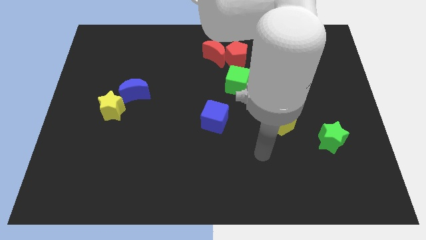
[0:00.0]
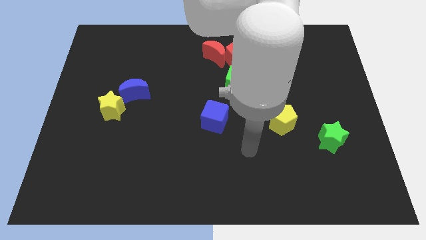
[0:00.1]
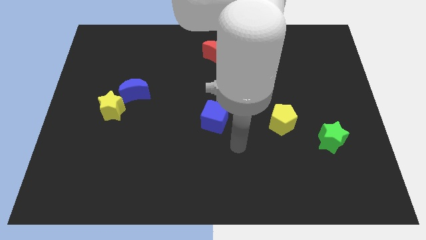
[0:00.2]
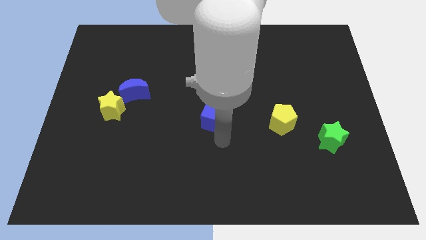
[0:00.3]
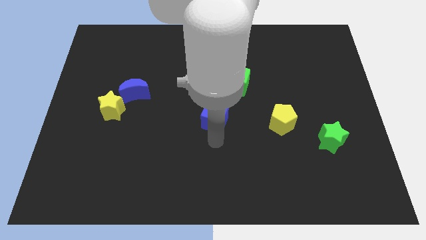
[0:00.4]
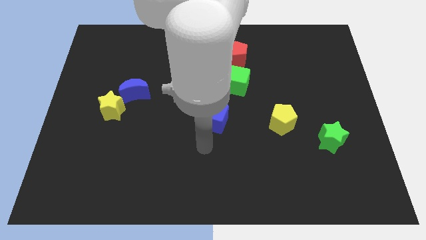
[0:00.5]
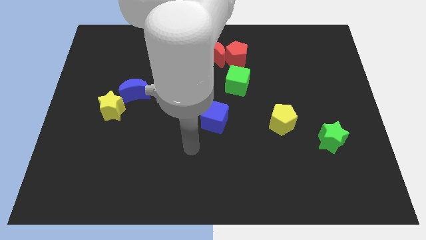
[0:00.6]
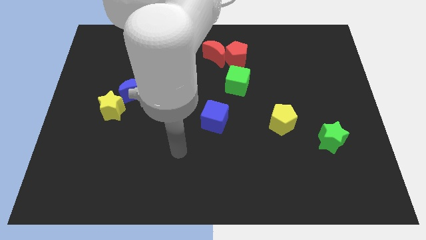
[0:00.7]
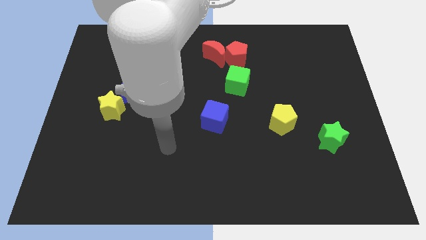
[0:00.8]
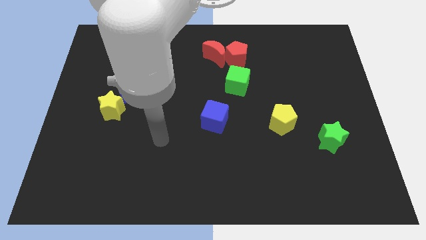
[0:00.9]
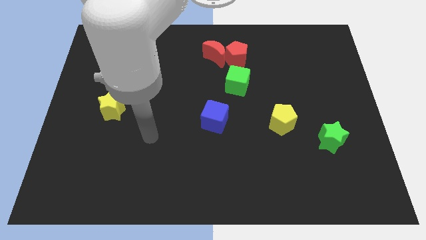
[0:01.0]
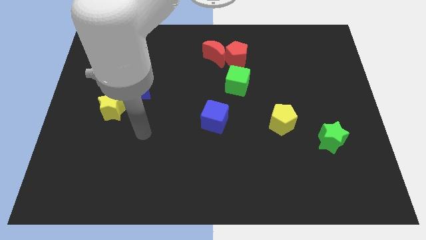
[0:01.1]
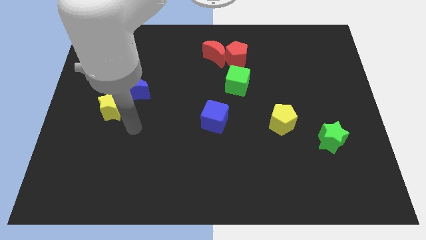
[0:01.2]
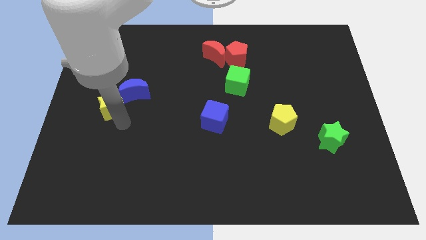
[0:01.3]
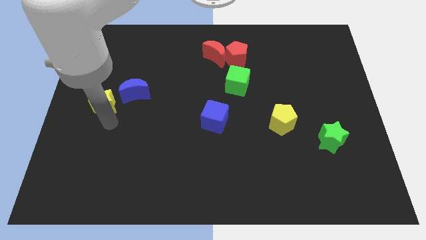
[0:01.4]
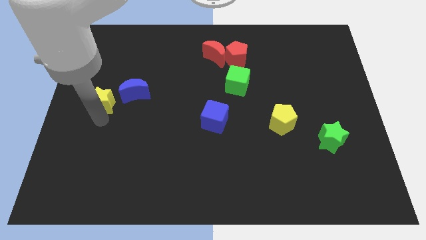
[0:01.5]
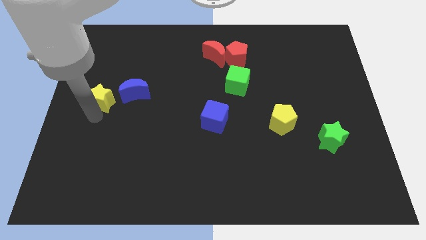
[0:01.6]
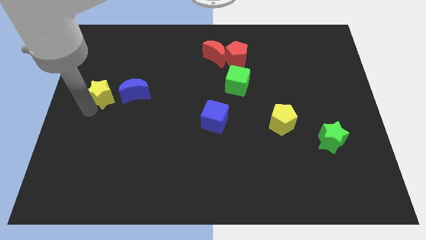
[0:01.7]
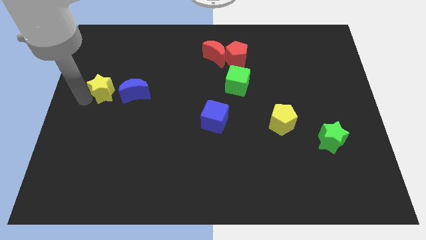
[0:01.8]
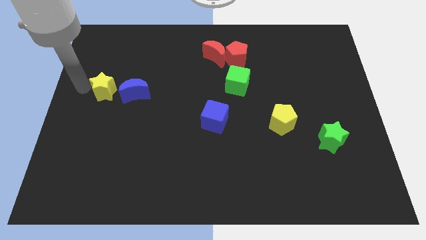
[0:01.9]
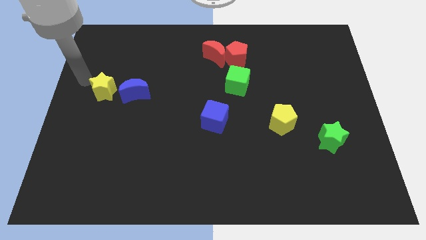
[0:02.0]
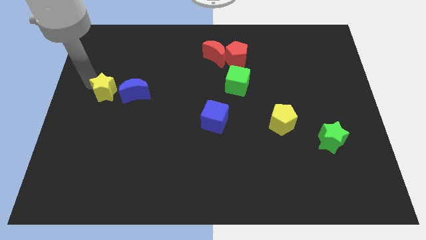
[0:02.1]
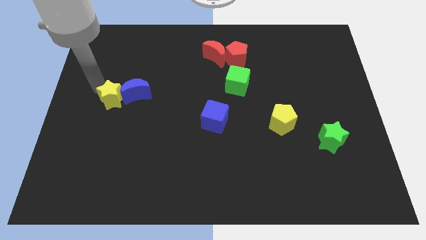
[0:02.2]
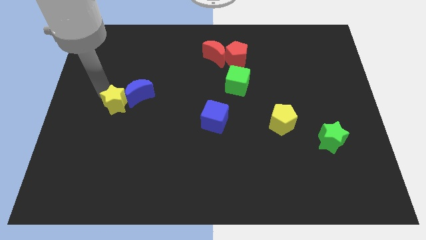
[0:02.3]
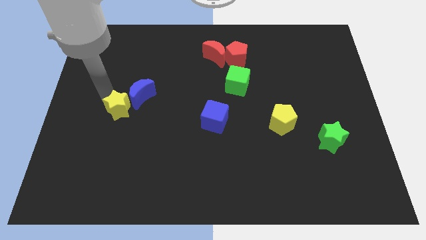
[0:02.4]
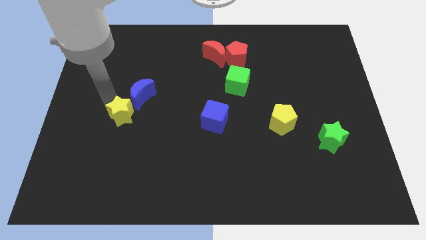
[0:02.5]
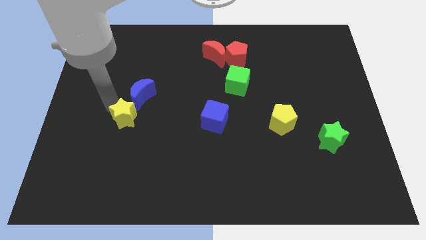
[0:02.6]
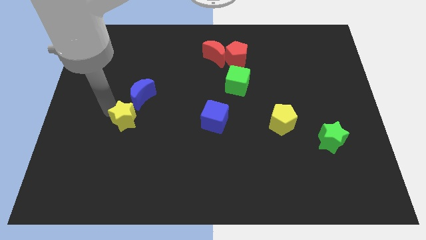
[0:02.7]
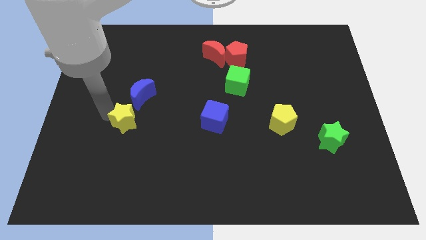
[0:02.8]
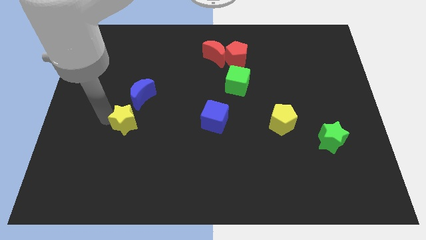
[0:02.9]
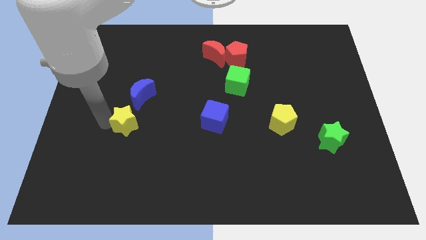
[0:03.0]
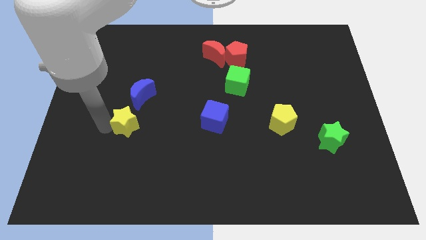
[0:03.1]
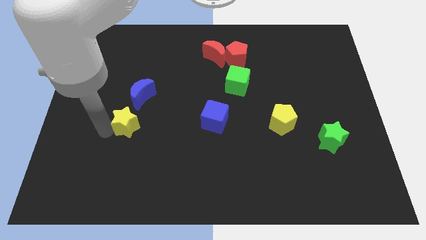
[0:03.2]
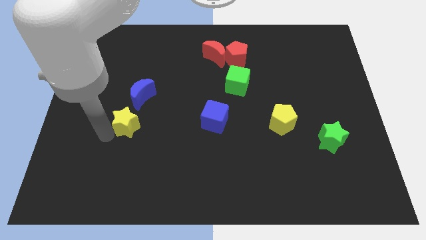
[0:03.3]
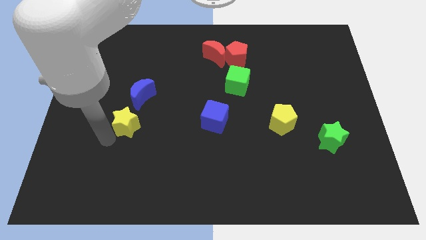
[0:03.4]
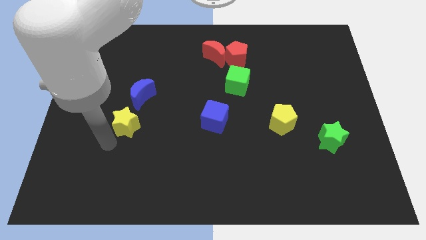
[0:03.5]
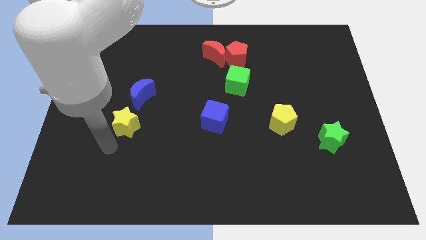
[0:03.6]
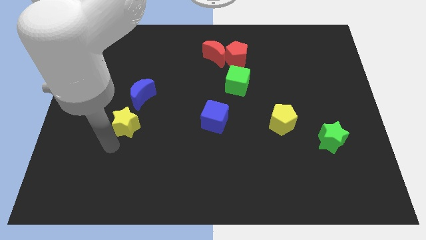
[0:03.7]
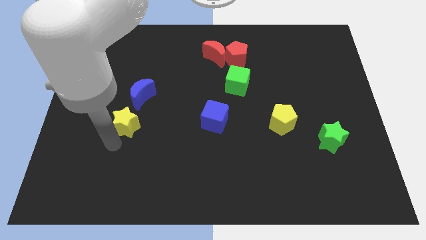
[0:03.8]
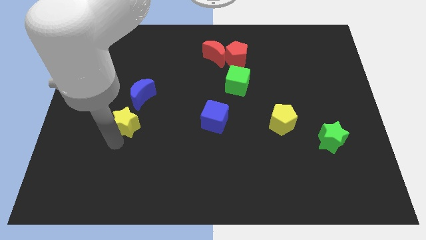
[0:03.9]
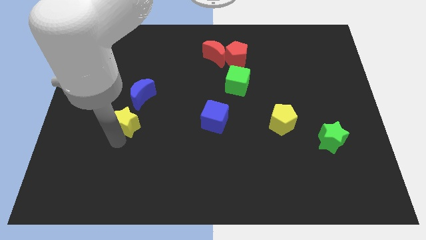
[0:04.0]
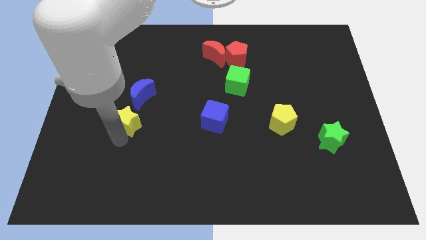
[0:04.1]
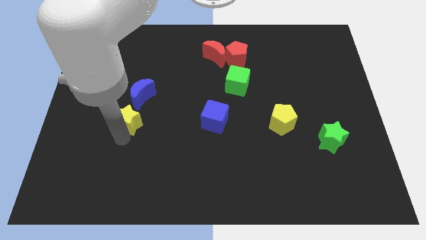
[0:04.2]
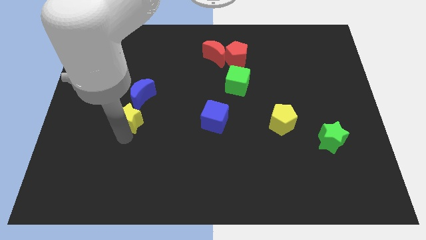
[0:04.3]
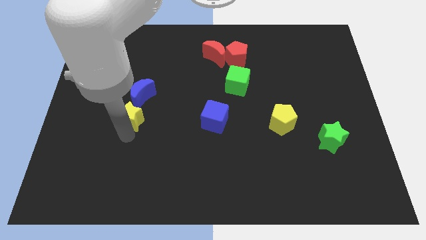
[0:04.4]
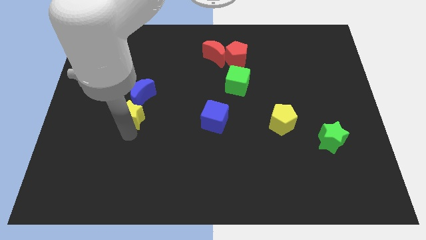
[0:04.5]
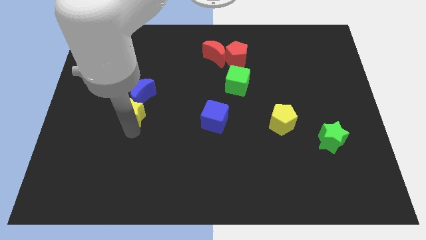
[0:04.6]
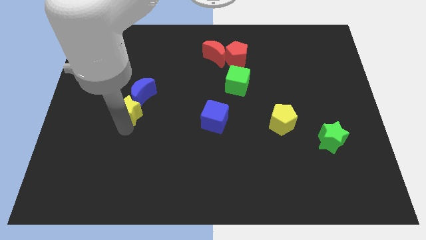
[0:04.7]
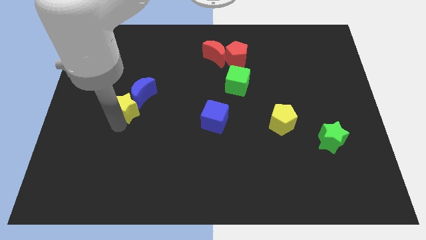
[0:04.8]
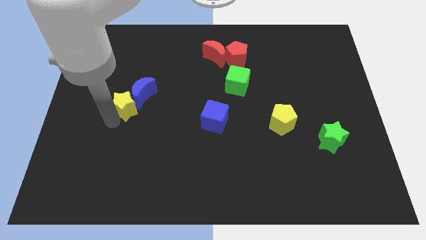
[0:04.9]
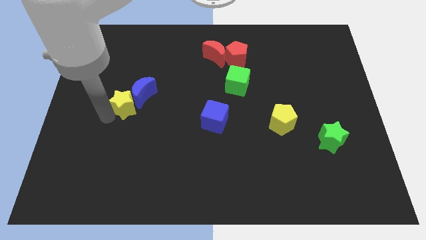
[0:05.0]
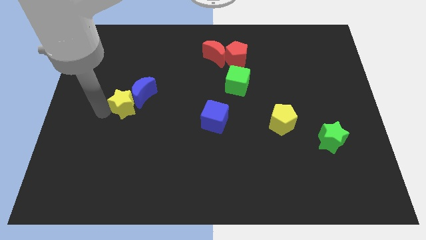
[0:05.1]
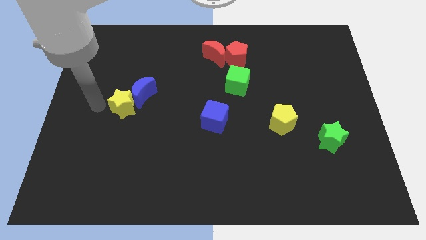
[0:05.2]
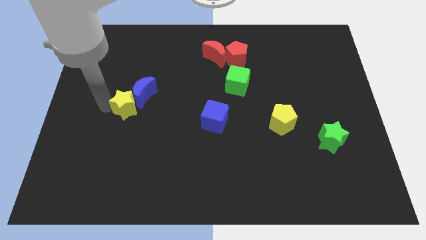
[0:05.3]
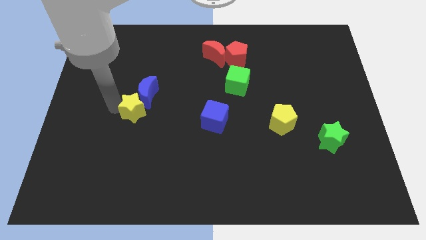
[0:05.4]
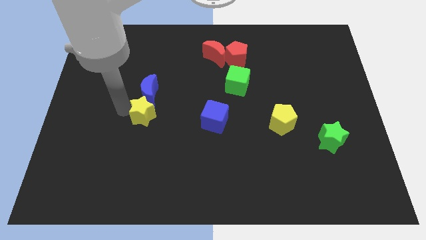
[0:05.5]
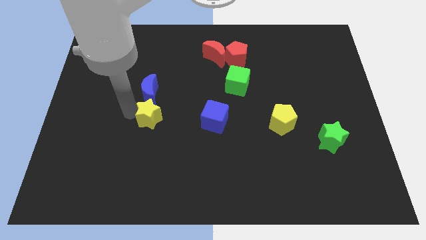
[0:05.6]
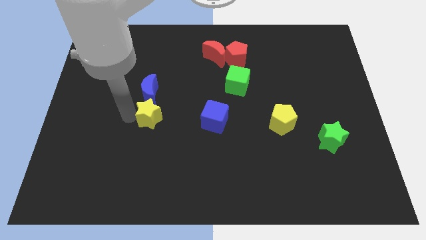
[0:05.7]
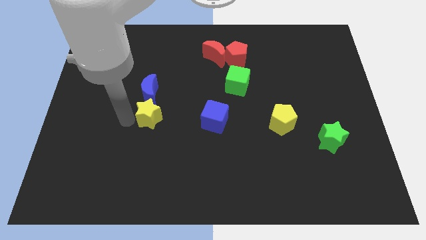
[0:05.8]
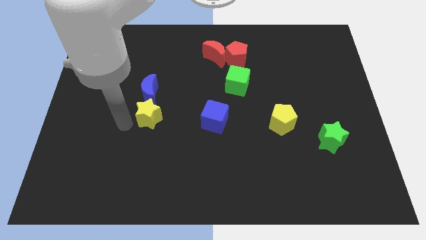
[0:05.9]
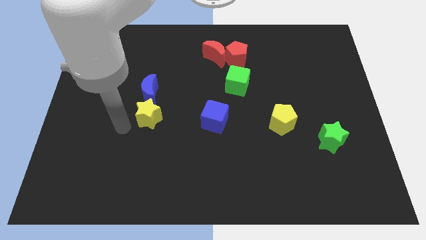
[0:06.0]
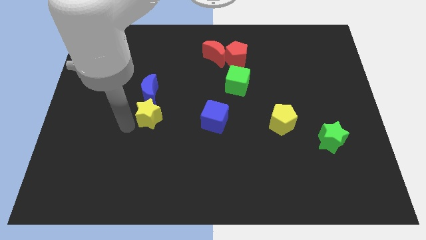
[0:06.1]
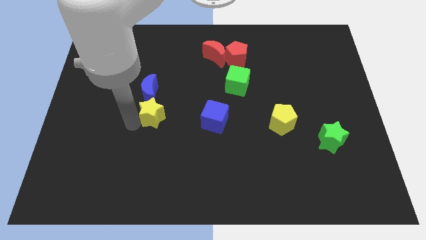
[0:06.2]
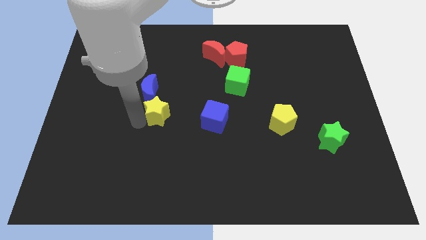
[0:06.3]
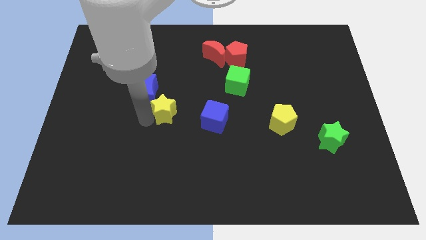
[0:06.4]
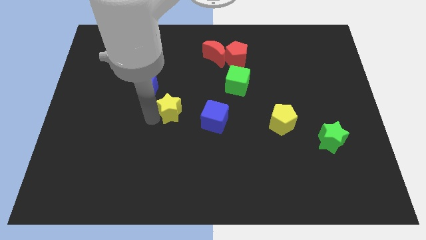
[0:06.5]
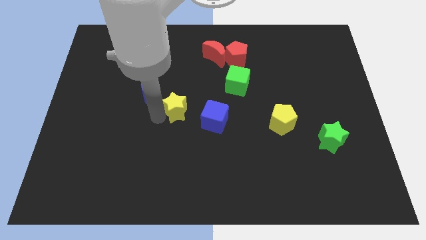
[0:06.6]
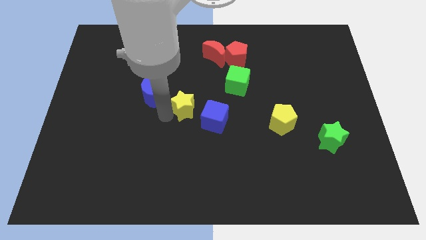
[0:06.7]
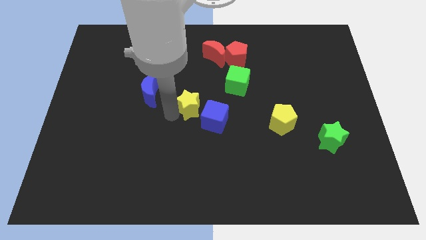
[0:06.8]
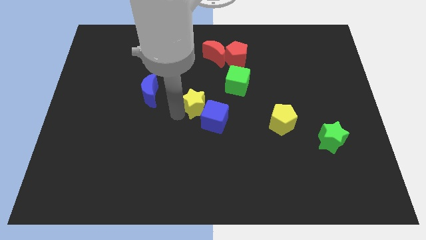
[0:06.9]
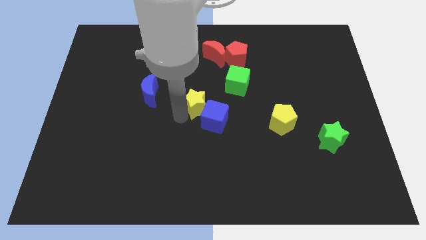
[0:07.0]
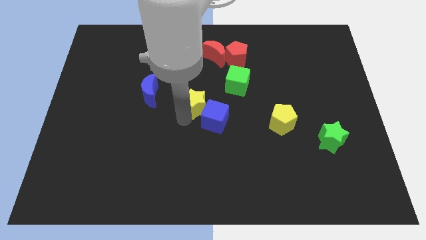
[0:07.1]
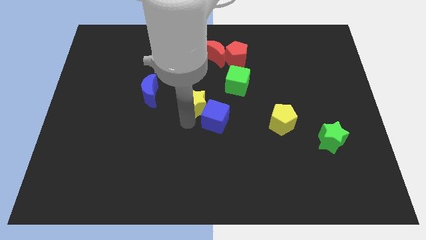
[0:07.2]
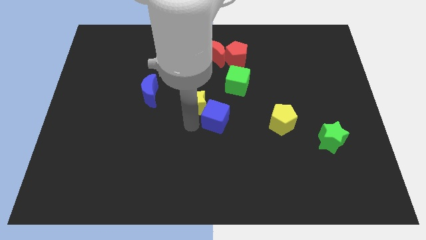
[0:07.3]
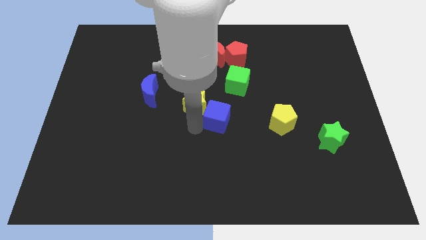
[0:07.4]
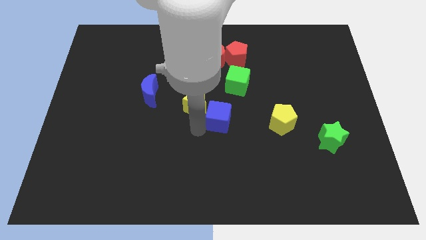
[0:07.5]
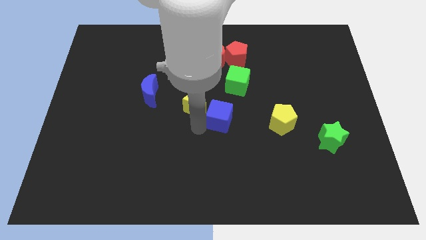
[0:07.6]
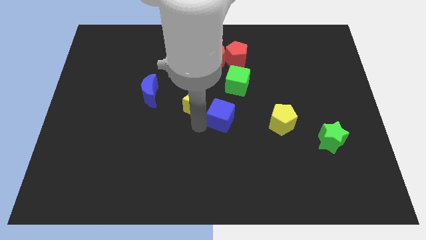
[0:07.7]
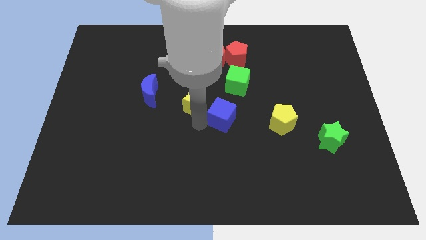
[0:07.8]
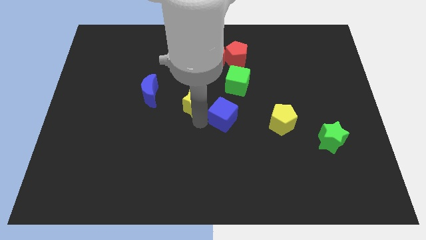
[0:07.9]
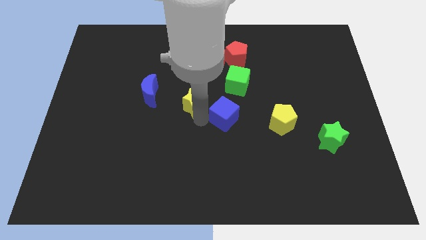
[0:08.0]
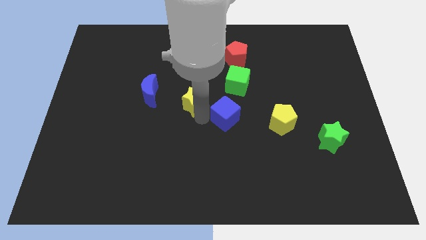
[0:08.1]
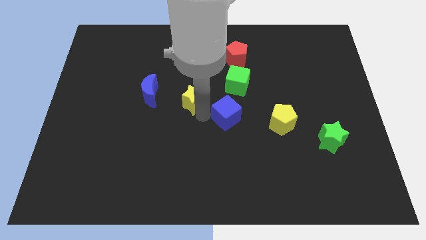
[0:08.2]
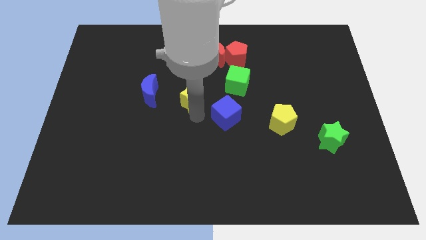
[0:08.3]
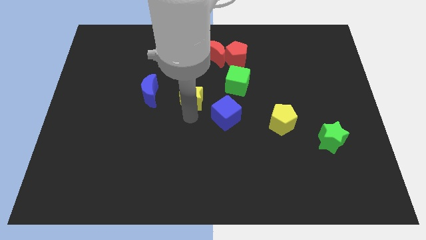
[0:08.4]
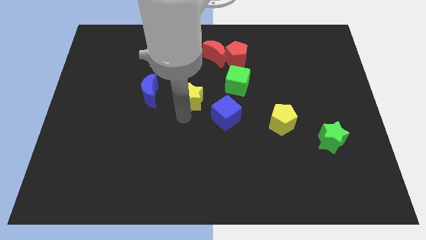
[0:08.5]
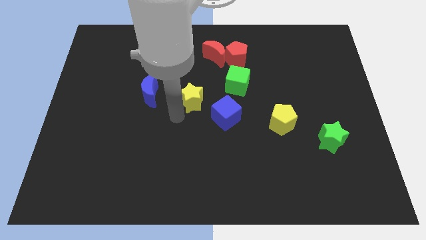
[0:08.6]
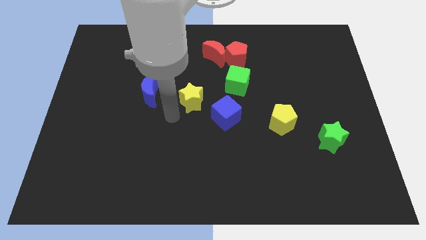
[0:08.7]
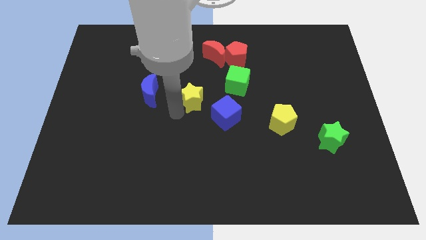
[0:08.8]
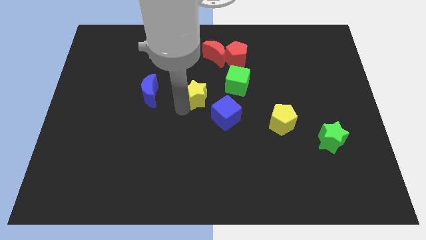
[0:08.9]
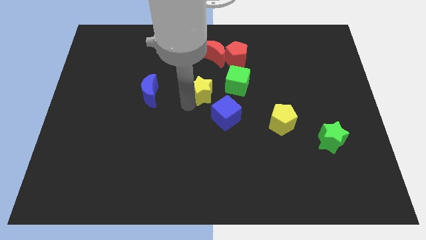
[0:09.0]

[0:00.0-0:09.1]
slide the yellow star below the red moon
